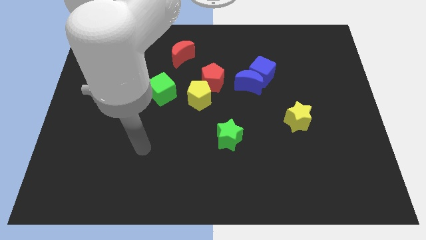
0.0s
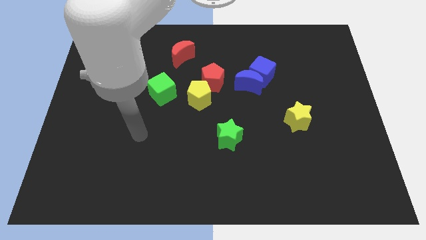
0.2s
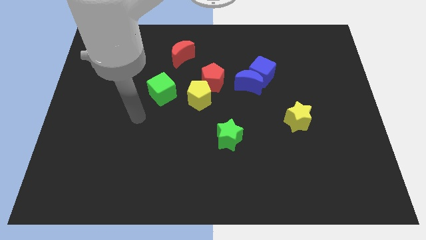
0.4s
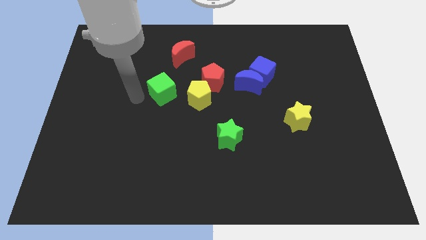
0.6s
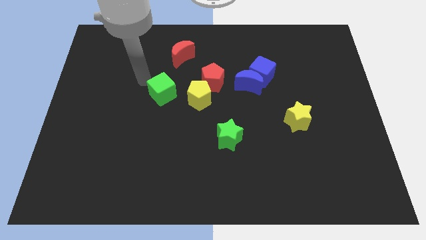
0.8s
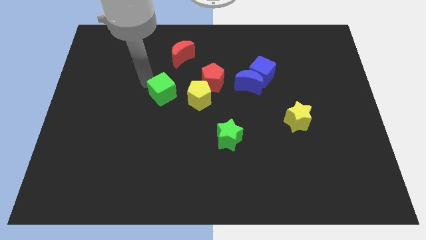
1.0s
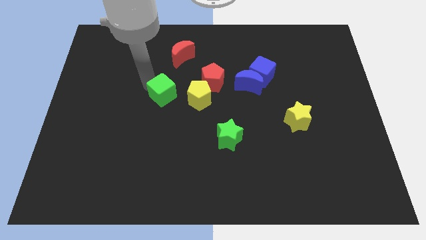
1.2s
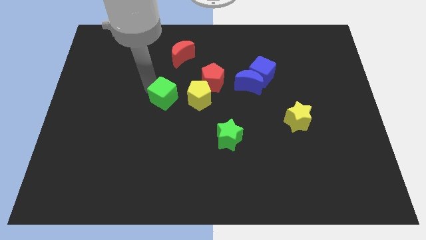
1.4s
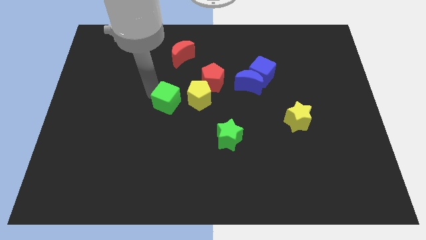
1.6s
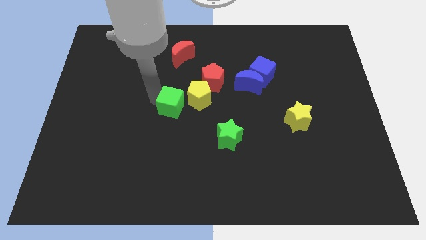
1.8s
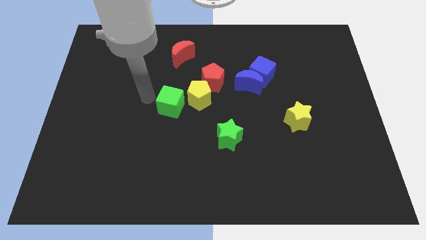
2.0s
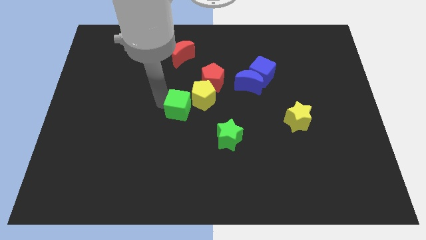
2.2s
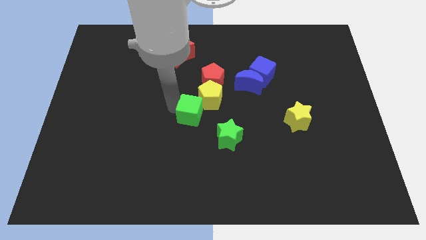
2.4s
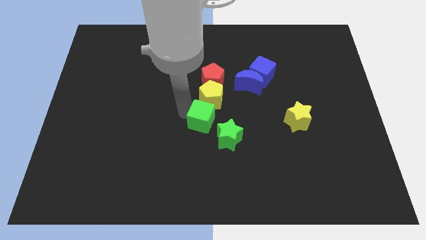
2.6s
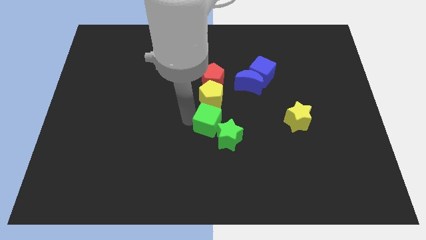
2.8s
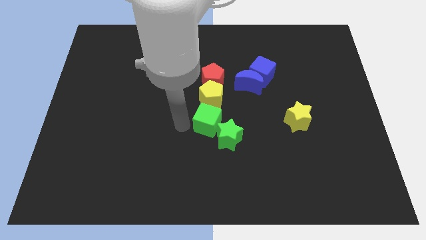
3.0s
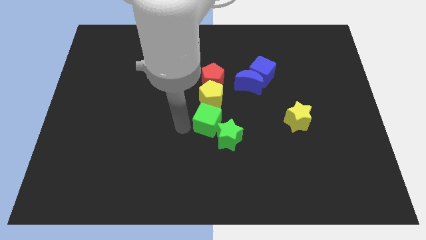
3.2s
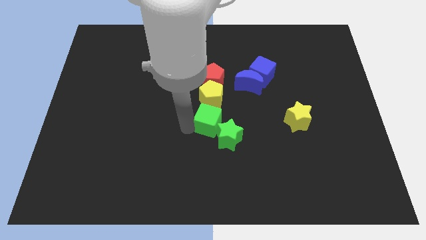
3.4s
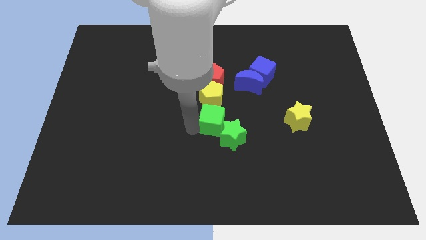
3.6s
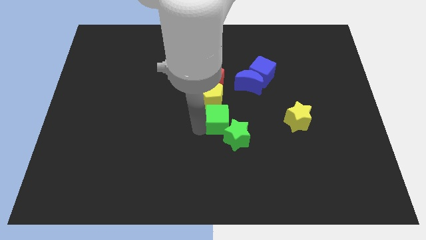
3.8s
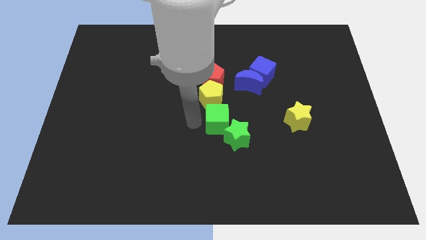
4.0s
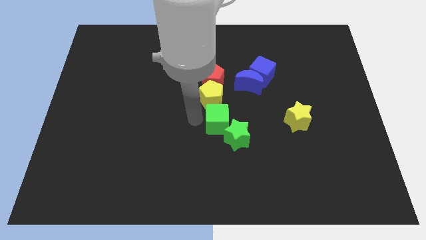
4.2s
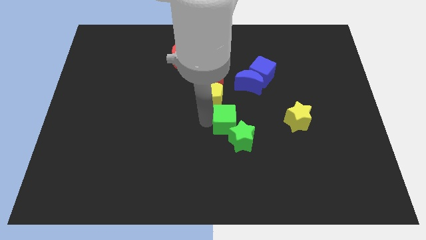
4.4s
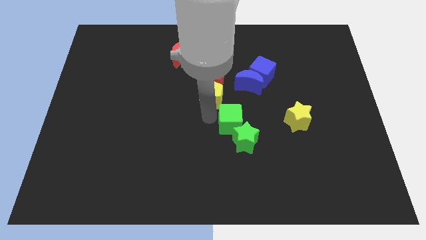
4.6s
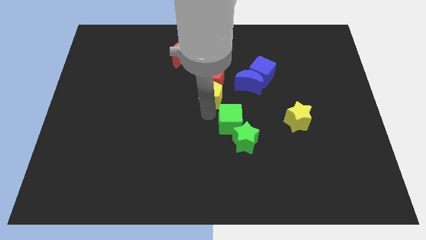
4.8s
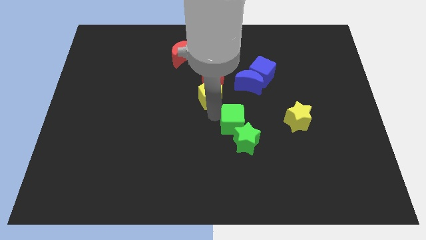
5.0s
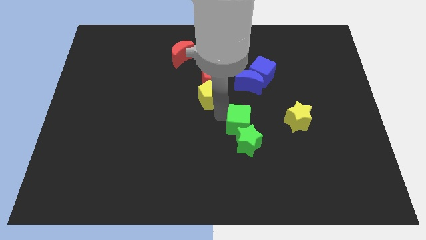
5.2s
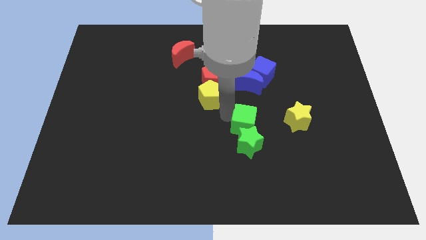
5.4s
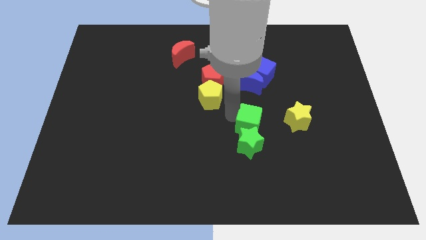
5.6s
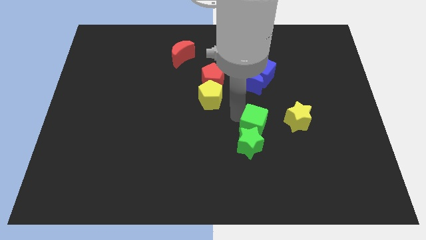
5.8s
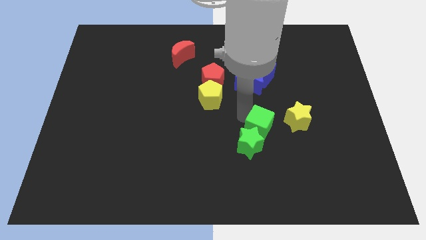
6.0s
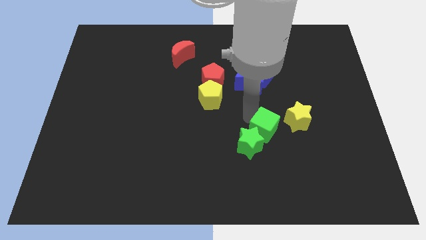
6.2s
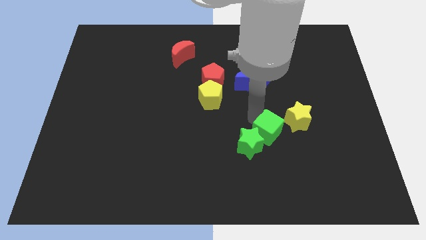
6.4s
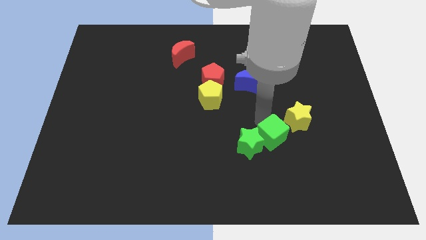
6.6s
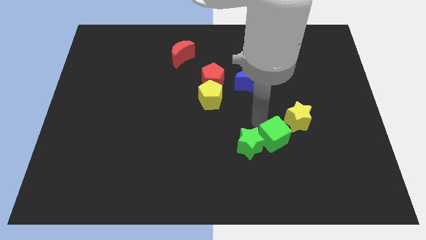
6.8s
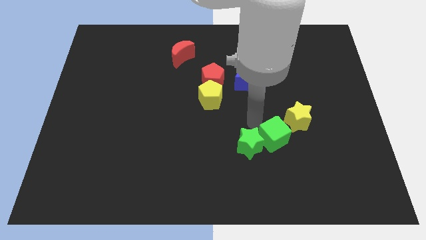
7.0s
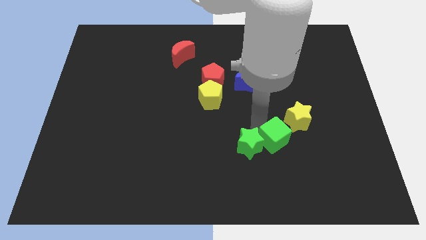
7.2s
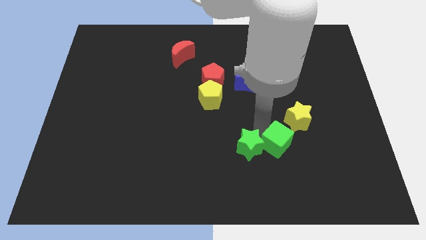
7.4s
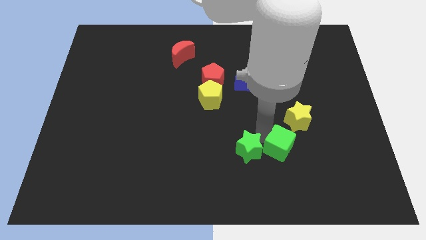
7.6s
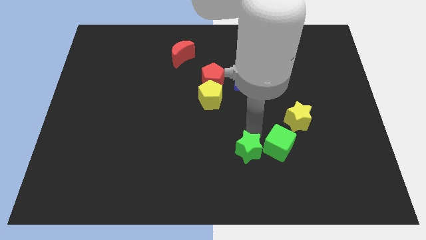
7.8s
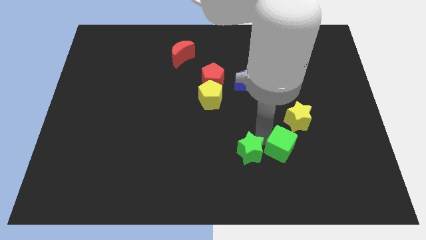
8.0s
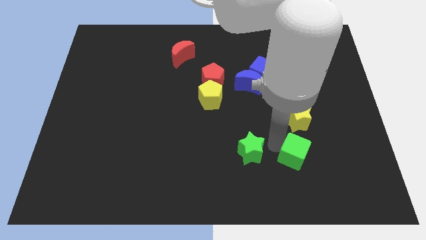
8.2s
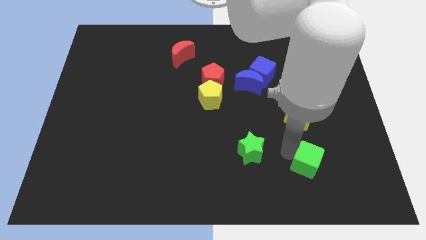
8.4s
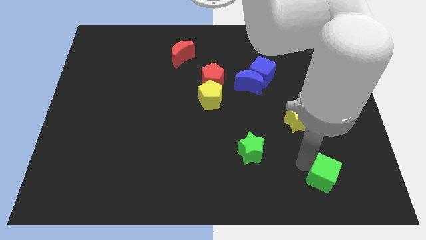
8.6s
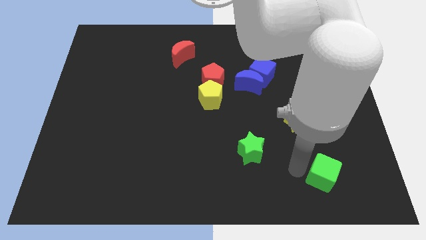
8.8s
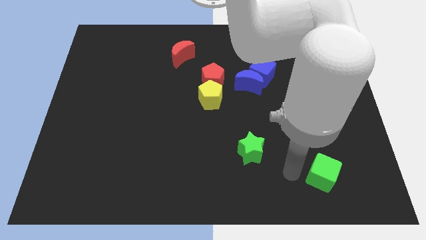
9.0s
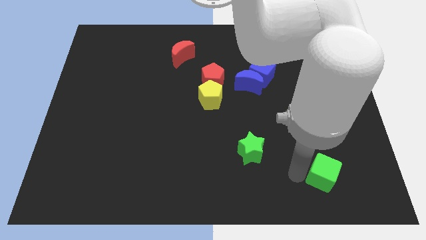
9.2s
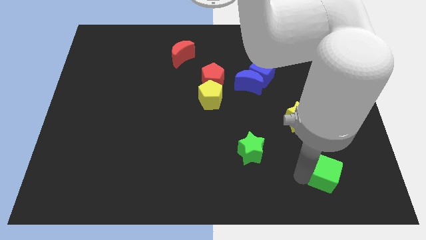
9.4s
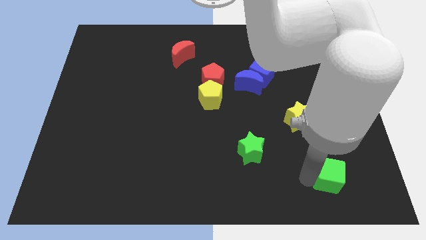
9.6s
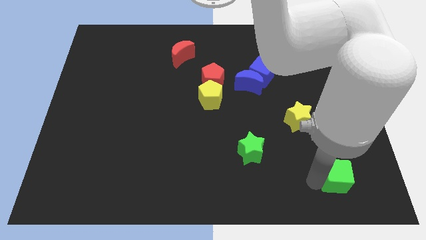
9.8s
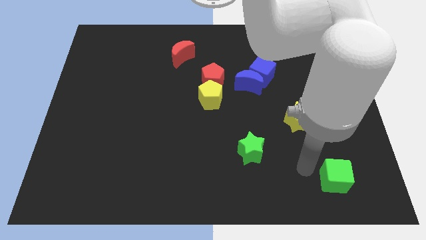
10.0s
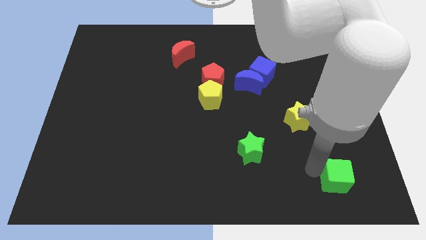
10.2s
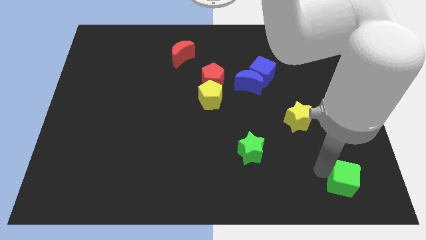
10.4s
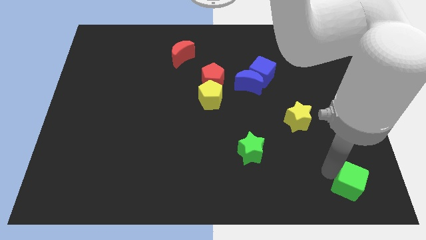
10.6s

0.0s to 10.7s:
move the green cube to the bottom right

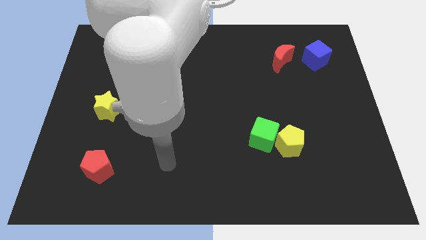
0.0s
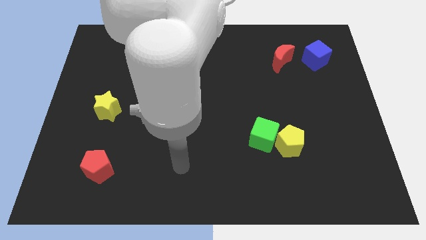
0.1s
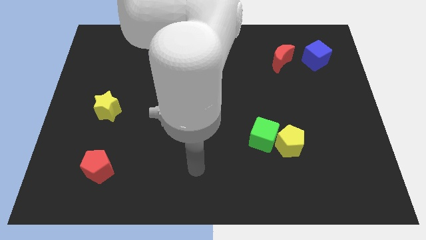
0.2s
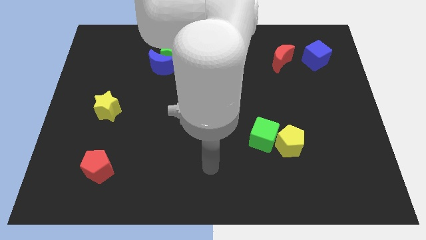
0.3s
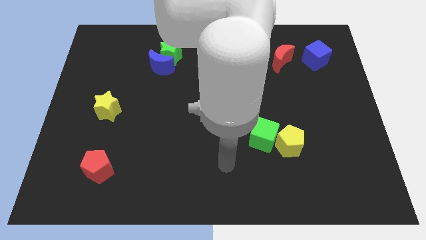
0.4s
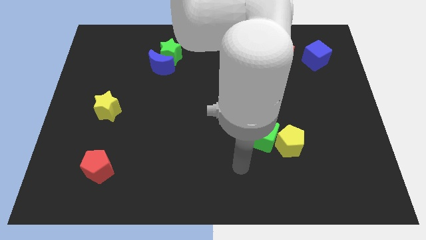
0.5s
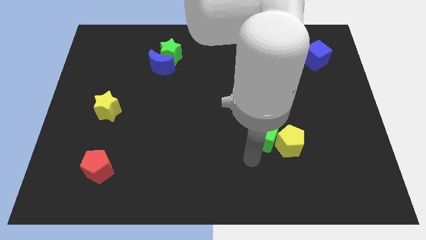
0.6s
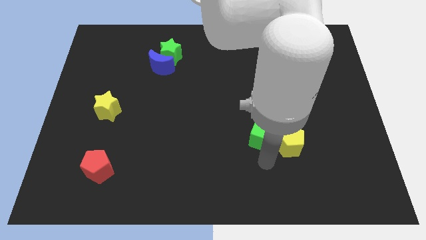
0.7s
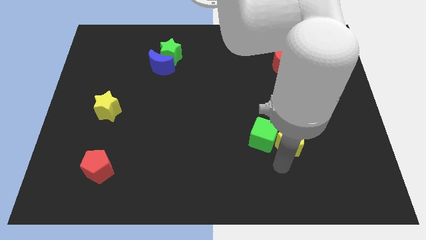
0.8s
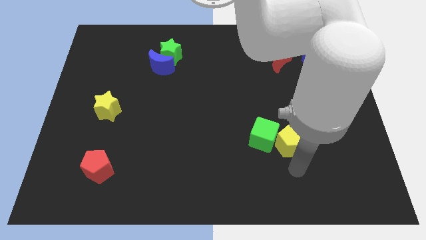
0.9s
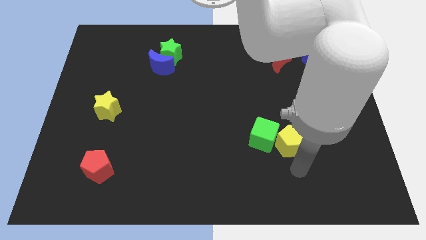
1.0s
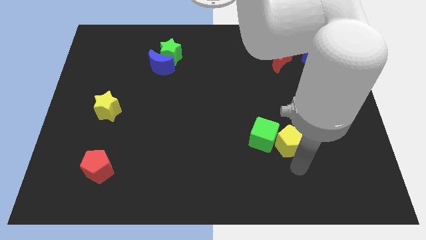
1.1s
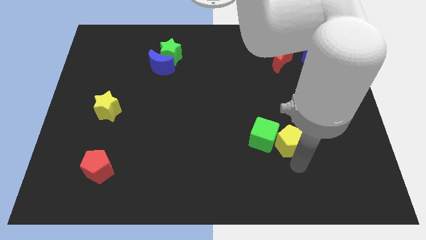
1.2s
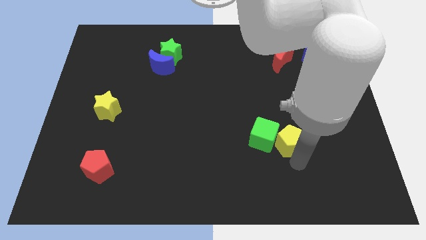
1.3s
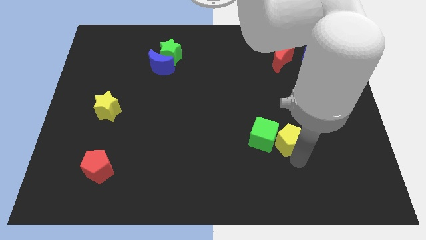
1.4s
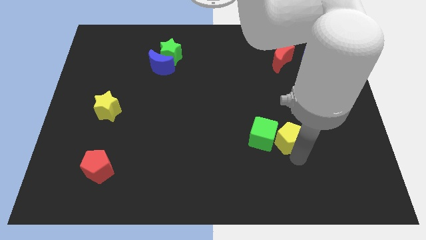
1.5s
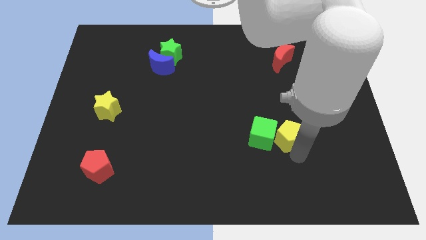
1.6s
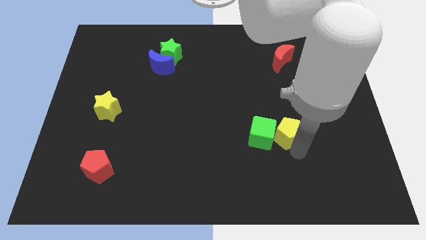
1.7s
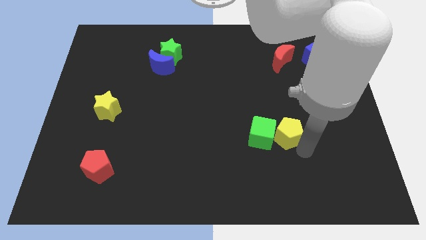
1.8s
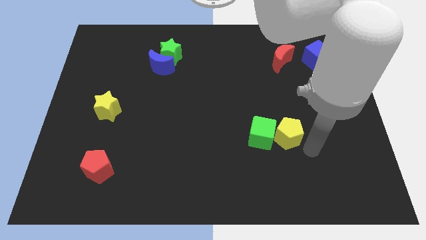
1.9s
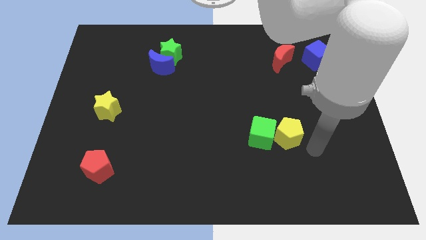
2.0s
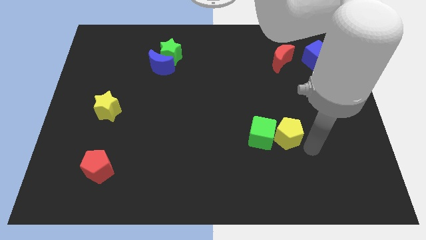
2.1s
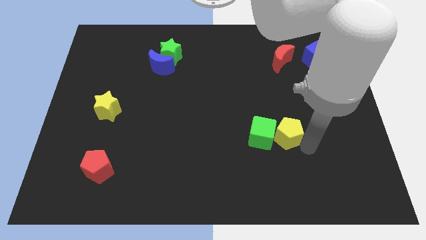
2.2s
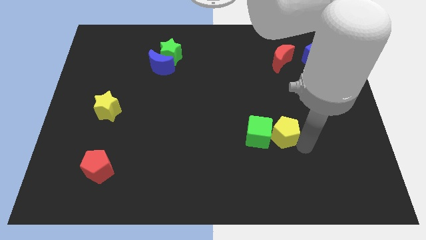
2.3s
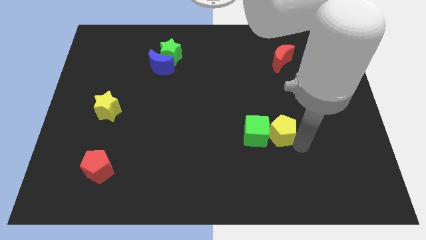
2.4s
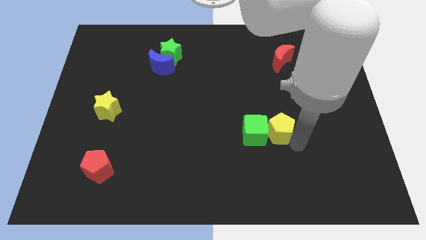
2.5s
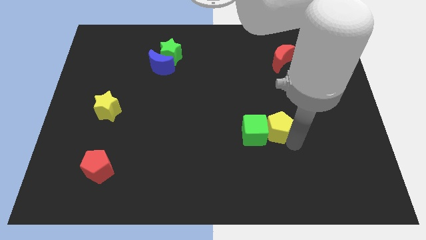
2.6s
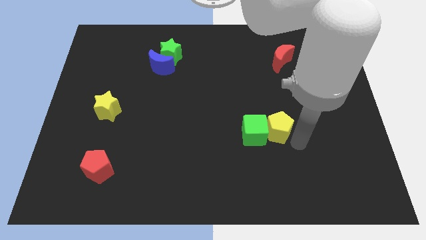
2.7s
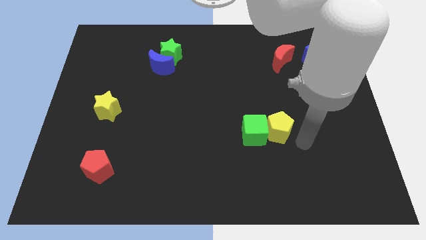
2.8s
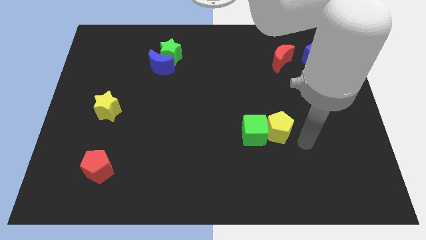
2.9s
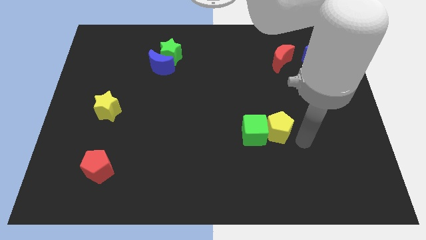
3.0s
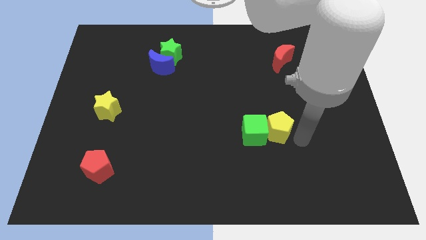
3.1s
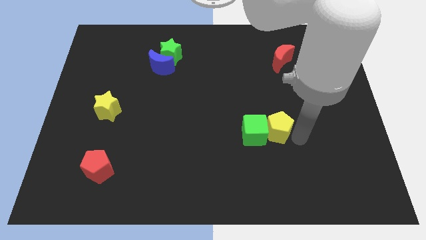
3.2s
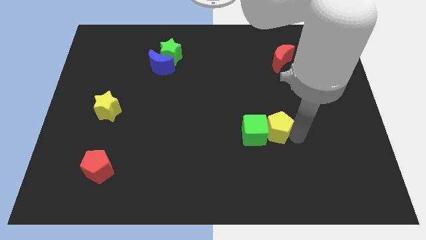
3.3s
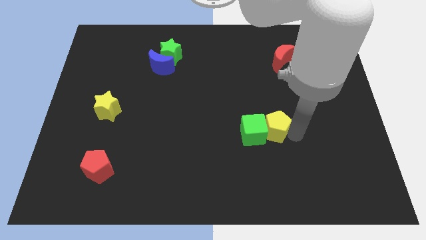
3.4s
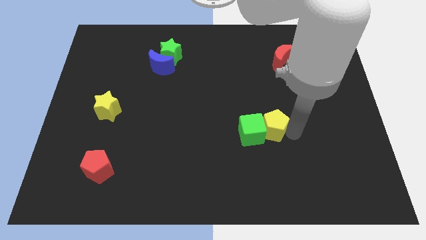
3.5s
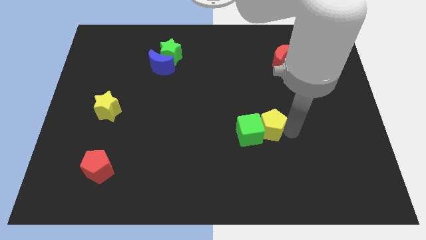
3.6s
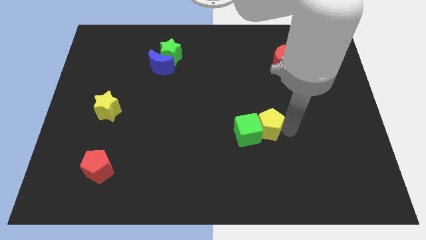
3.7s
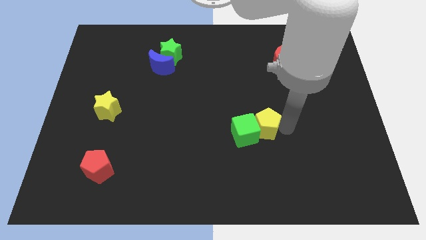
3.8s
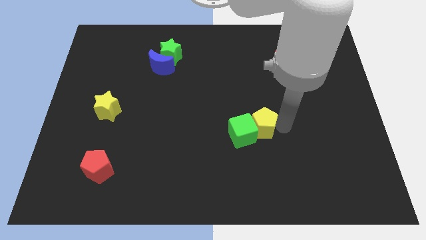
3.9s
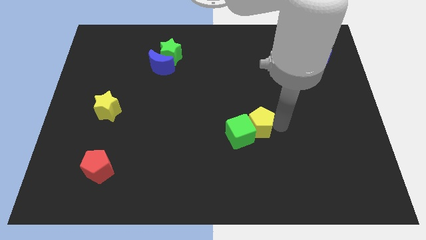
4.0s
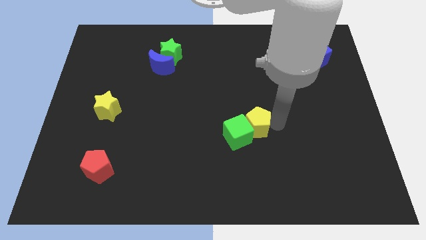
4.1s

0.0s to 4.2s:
slide the yellow pentagon to the middle of the board
